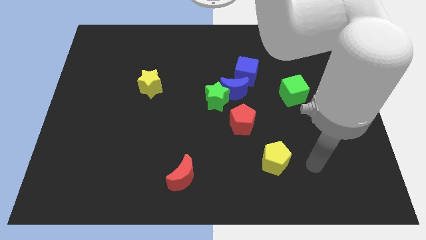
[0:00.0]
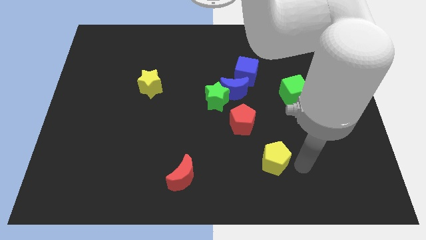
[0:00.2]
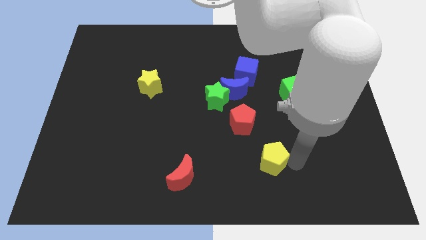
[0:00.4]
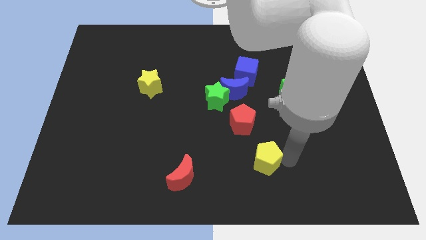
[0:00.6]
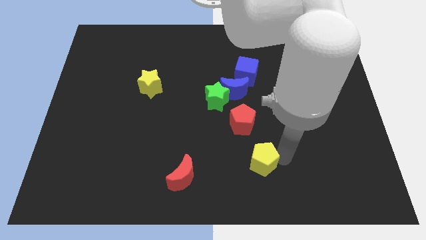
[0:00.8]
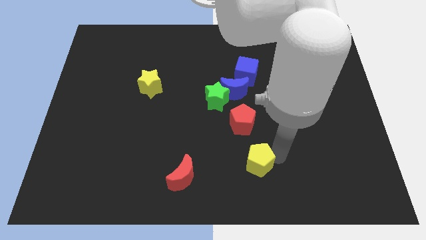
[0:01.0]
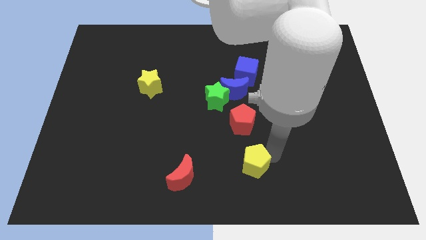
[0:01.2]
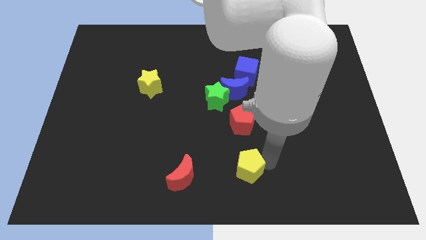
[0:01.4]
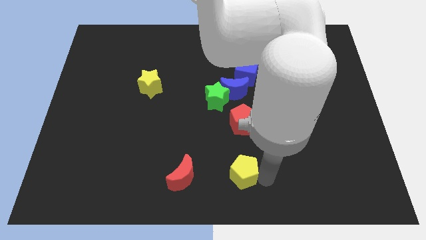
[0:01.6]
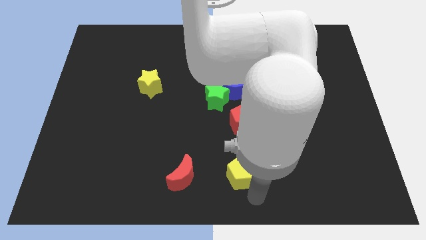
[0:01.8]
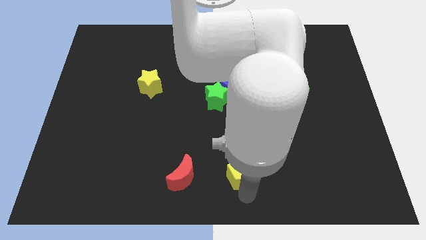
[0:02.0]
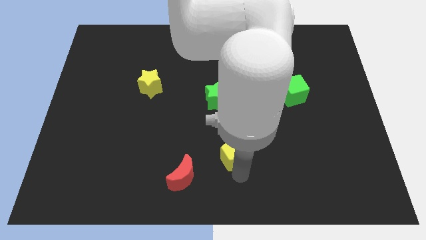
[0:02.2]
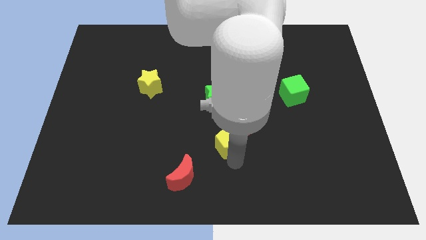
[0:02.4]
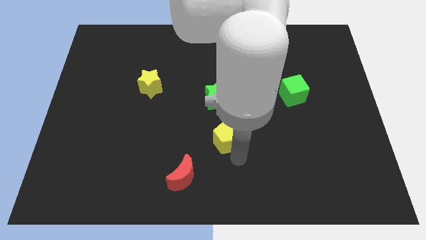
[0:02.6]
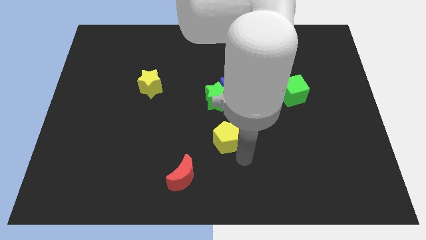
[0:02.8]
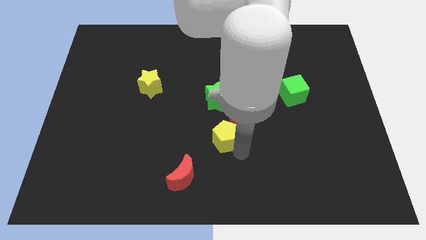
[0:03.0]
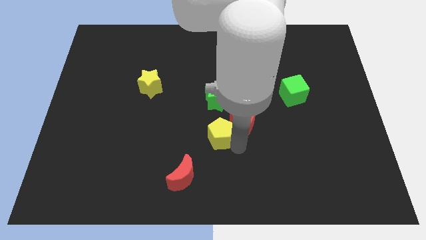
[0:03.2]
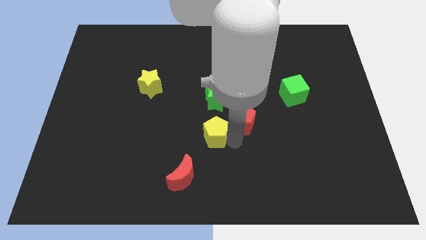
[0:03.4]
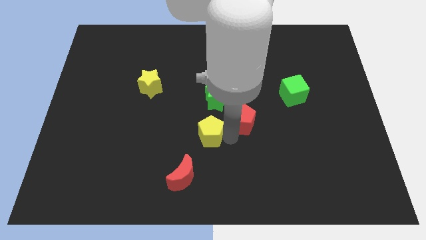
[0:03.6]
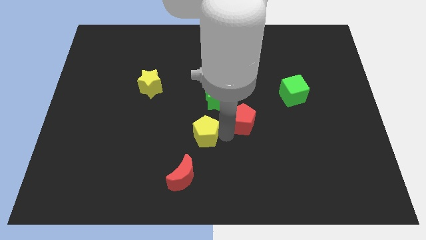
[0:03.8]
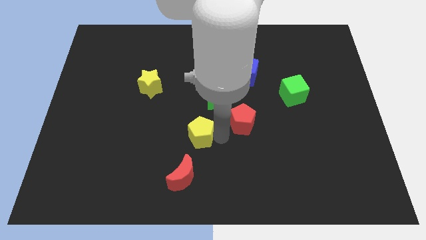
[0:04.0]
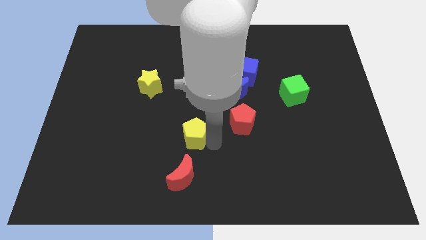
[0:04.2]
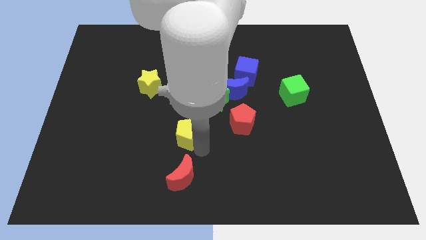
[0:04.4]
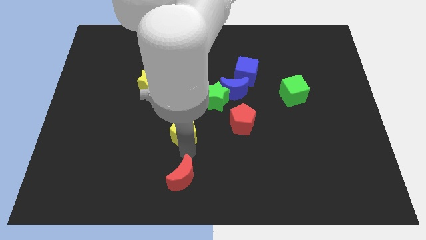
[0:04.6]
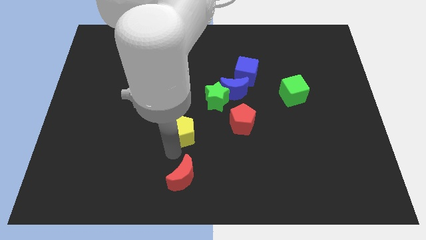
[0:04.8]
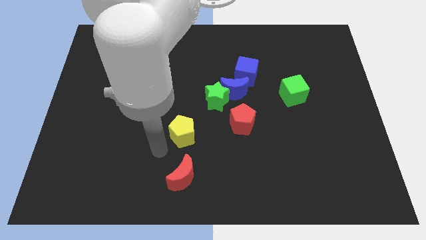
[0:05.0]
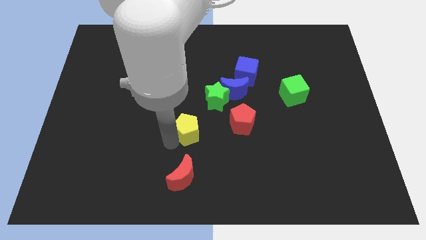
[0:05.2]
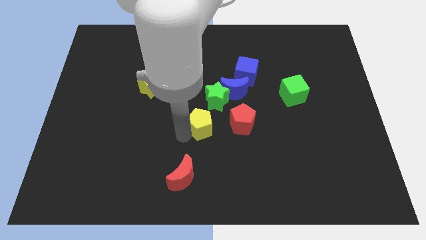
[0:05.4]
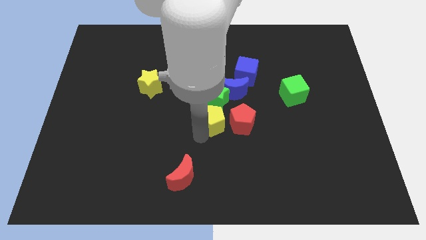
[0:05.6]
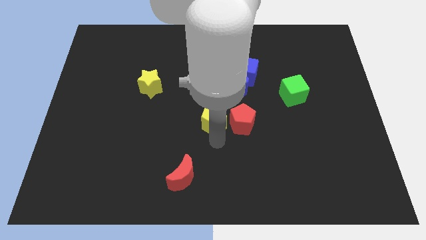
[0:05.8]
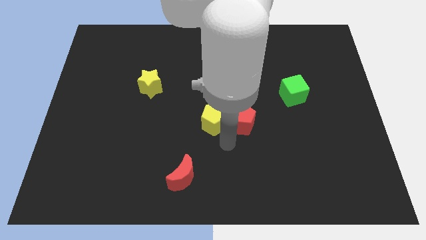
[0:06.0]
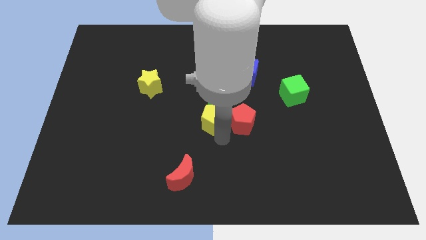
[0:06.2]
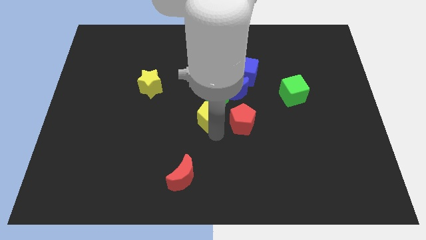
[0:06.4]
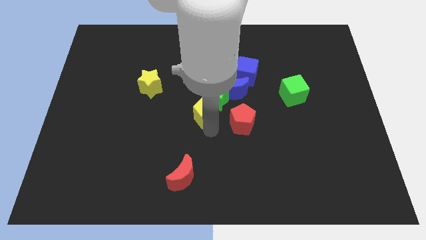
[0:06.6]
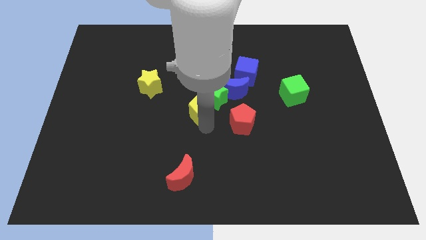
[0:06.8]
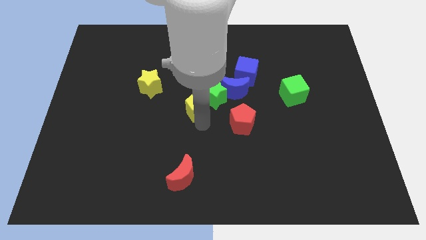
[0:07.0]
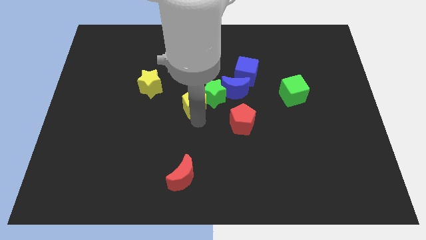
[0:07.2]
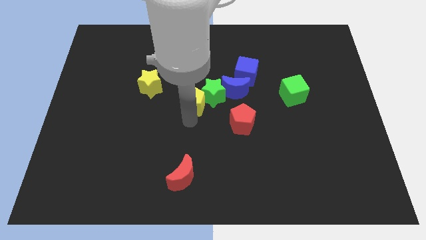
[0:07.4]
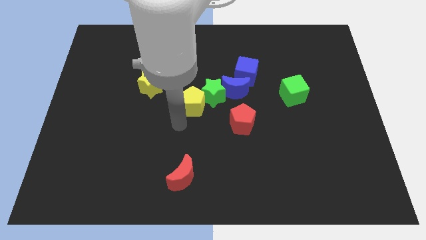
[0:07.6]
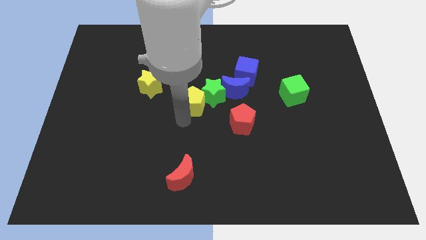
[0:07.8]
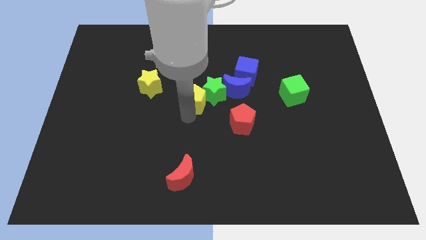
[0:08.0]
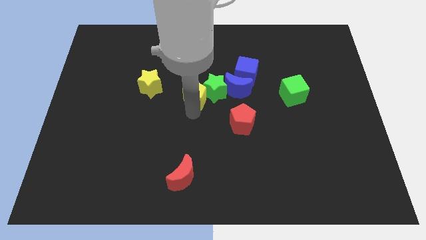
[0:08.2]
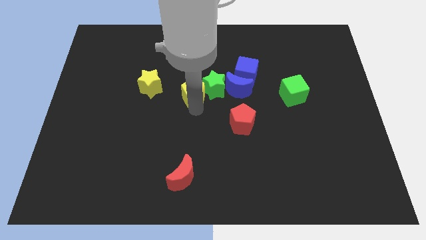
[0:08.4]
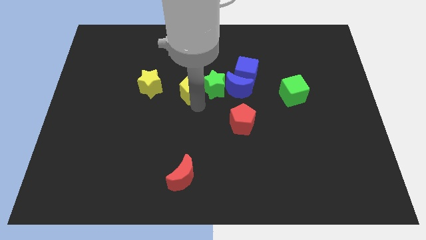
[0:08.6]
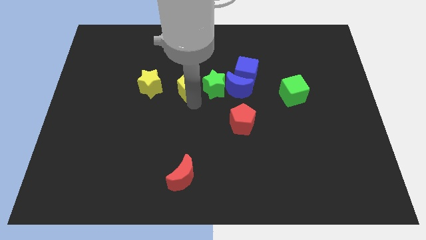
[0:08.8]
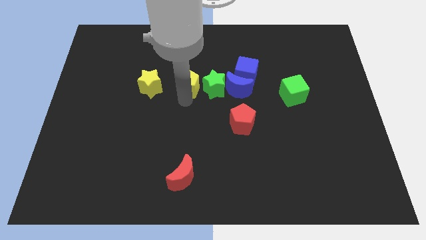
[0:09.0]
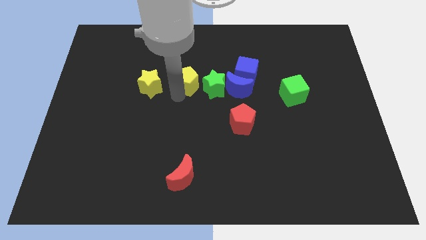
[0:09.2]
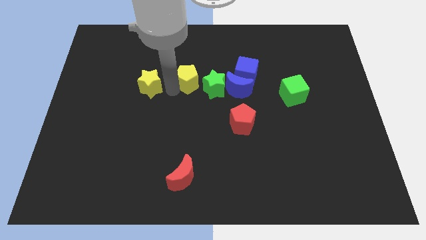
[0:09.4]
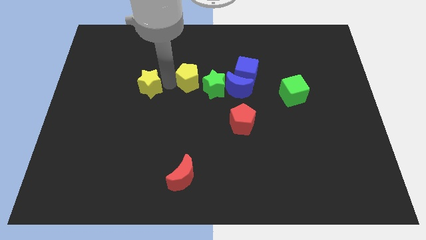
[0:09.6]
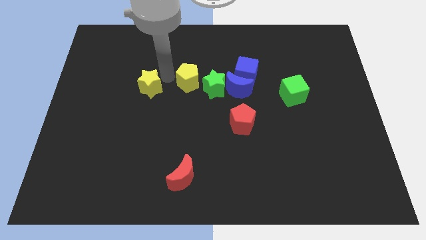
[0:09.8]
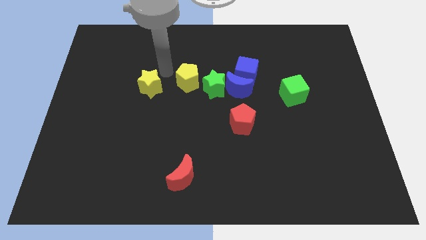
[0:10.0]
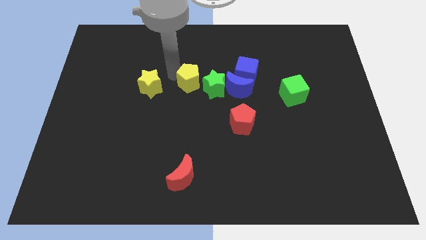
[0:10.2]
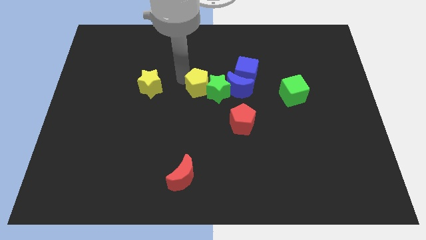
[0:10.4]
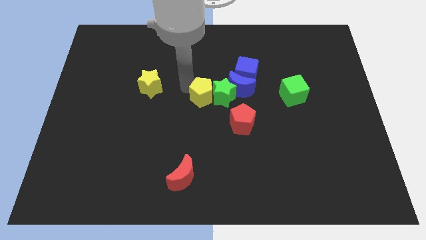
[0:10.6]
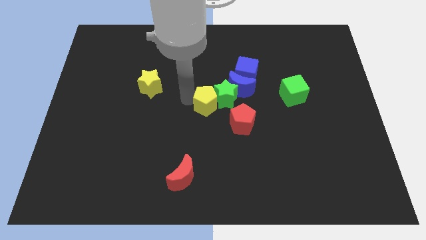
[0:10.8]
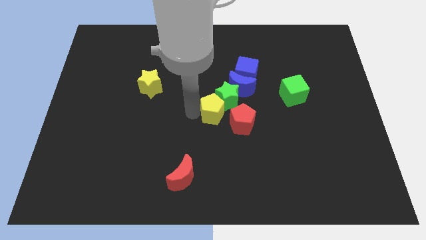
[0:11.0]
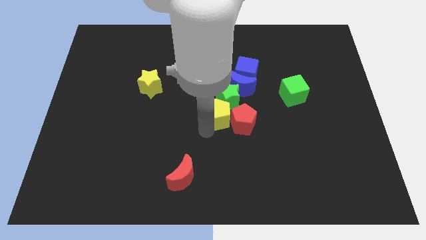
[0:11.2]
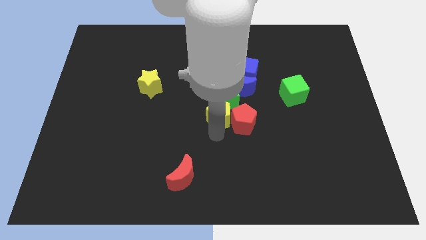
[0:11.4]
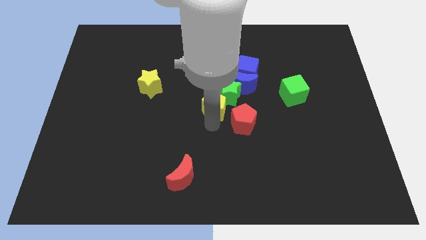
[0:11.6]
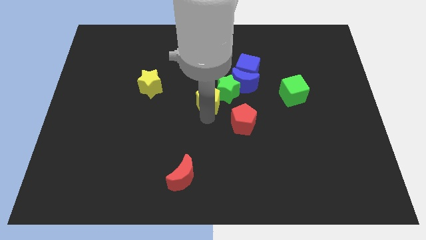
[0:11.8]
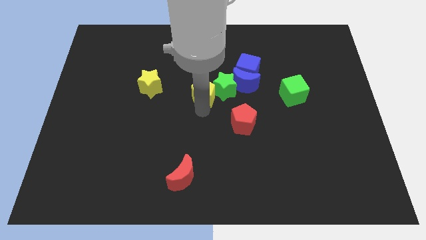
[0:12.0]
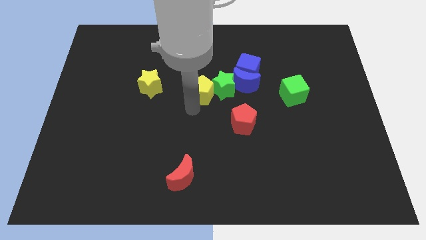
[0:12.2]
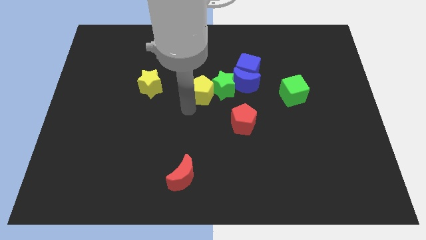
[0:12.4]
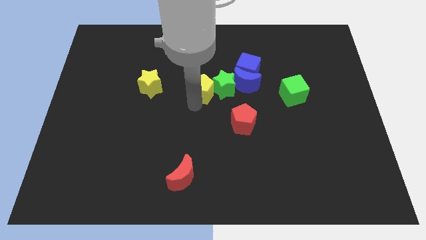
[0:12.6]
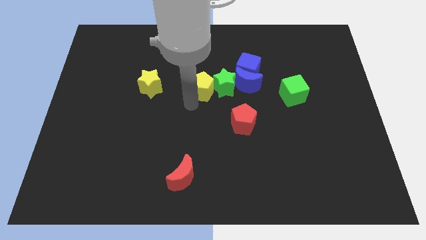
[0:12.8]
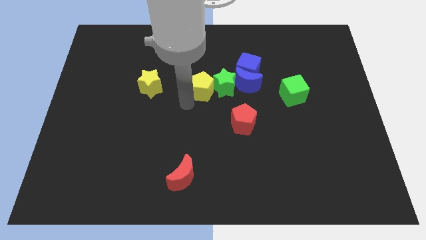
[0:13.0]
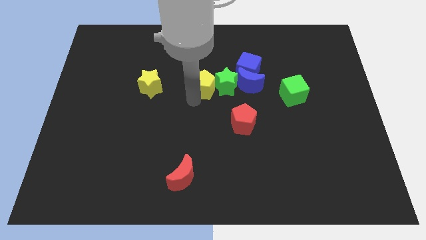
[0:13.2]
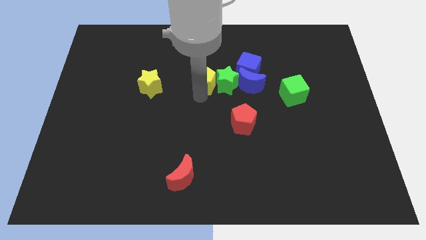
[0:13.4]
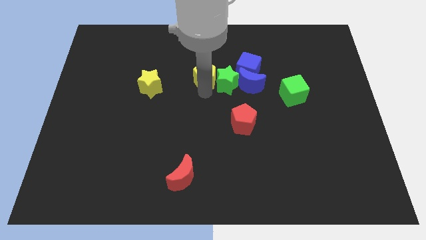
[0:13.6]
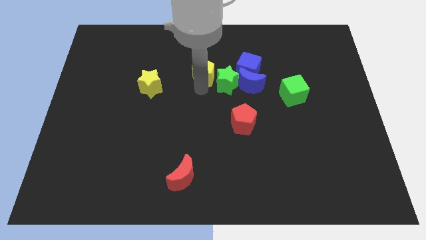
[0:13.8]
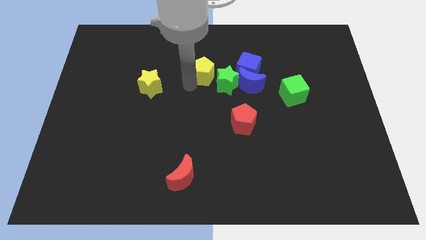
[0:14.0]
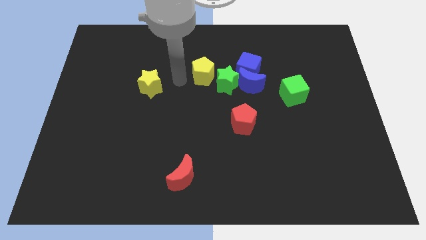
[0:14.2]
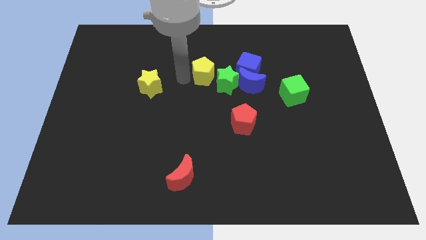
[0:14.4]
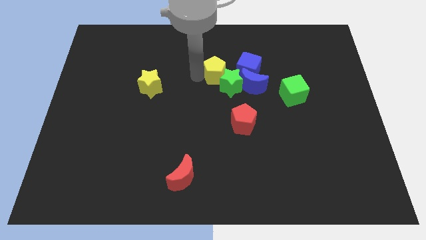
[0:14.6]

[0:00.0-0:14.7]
move the yellow pentagon to the top left side of the blue moon

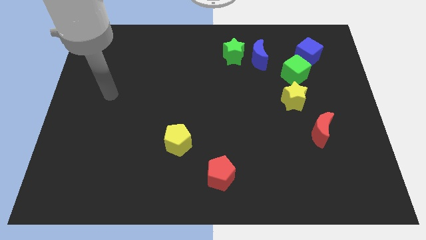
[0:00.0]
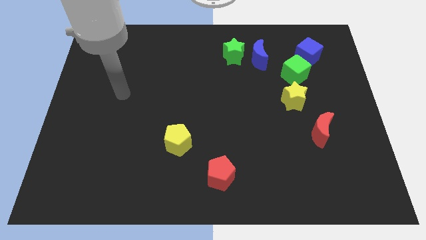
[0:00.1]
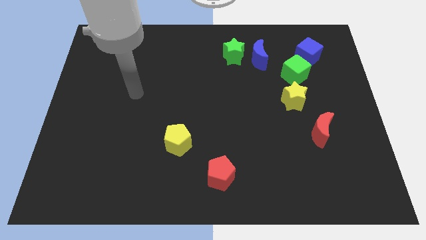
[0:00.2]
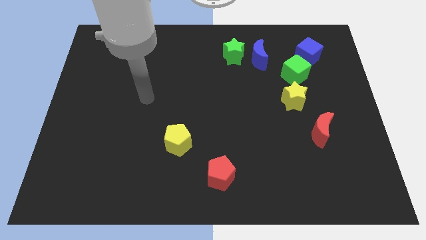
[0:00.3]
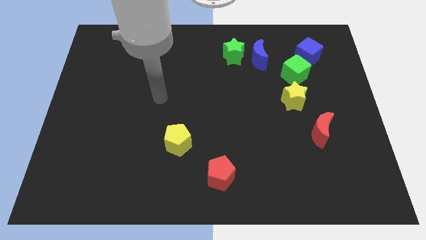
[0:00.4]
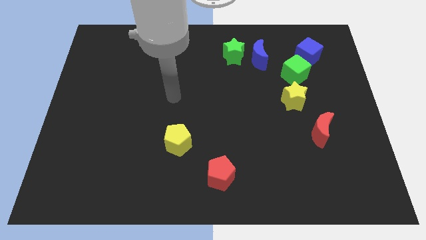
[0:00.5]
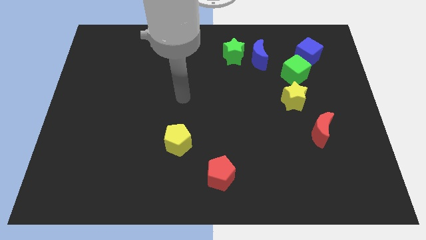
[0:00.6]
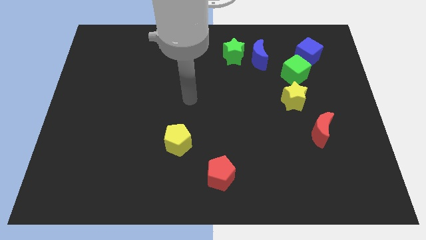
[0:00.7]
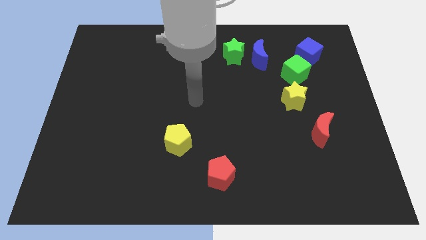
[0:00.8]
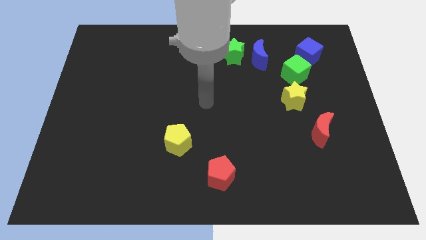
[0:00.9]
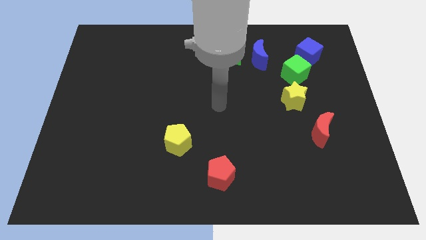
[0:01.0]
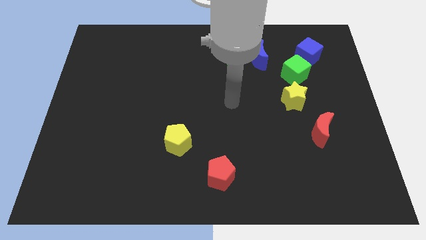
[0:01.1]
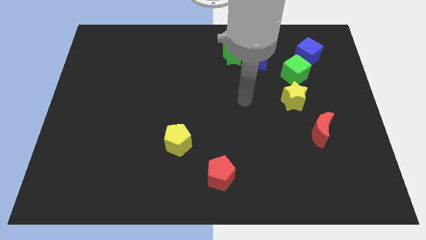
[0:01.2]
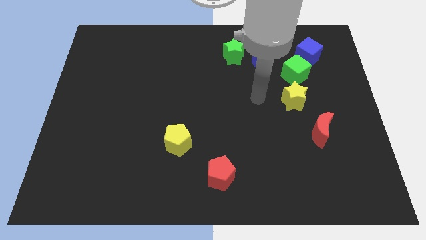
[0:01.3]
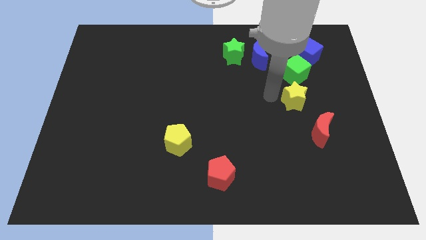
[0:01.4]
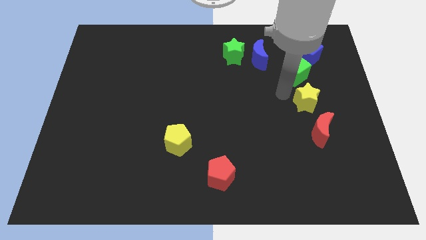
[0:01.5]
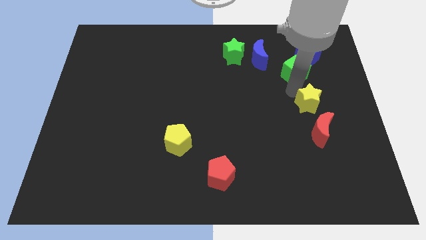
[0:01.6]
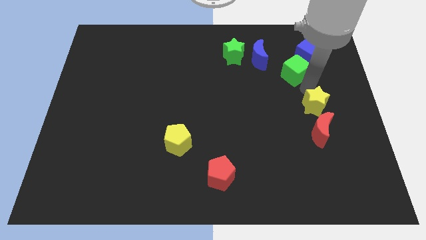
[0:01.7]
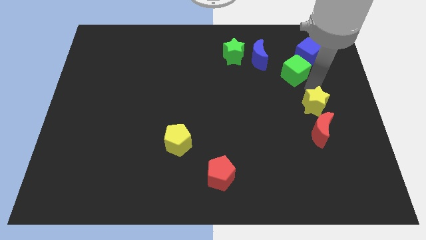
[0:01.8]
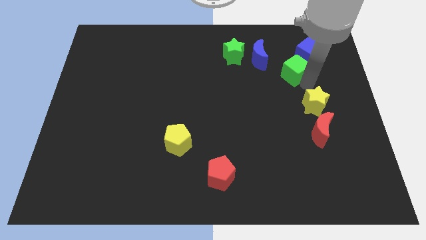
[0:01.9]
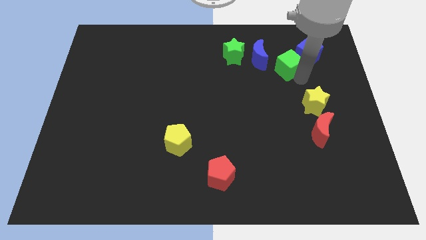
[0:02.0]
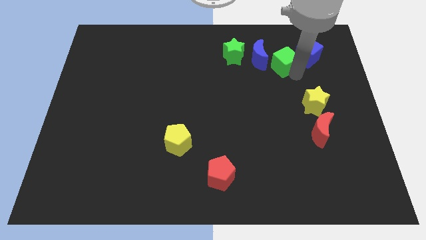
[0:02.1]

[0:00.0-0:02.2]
slide the green cube to the right of the green star
